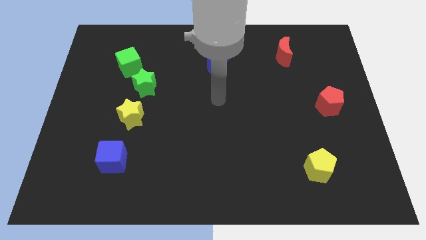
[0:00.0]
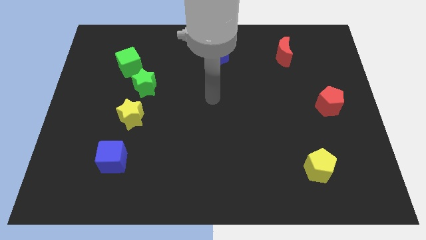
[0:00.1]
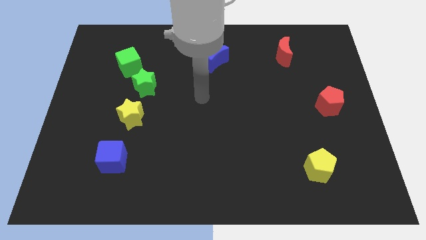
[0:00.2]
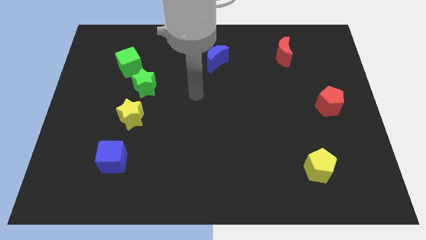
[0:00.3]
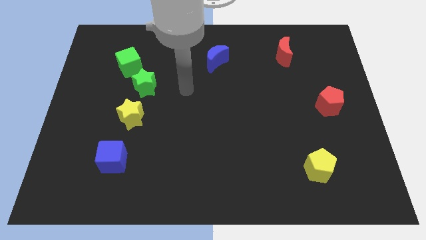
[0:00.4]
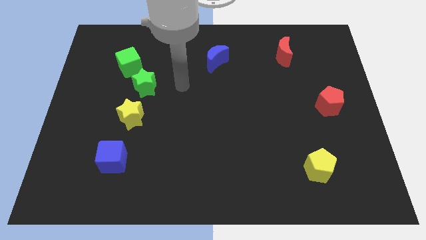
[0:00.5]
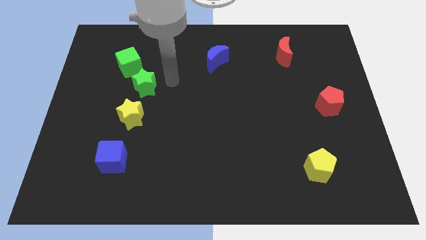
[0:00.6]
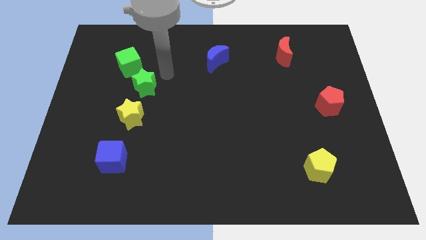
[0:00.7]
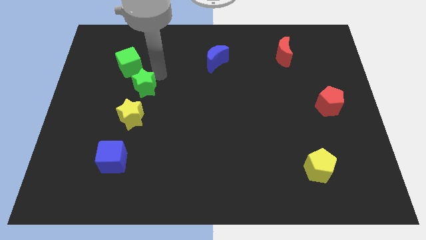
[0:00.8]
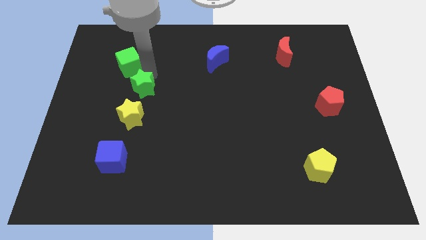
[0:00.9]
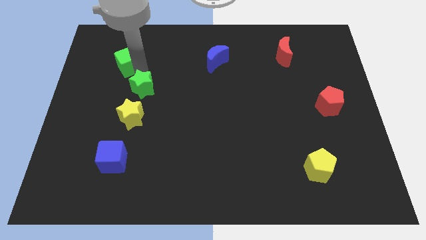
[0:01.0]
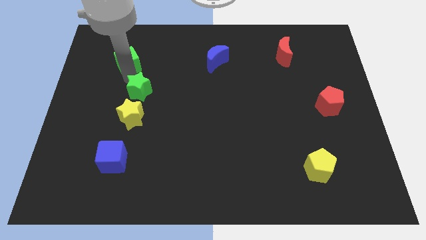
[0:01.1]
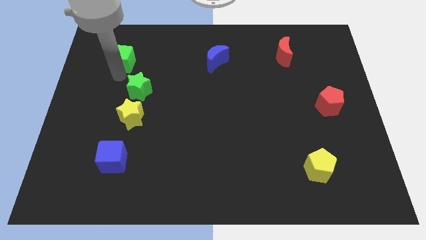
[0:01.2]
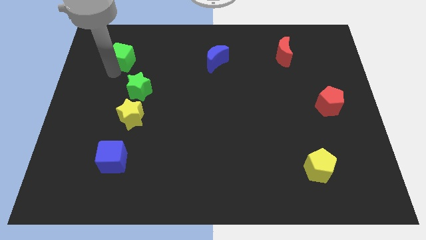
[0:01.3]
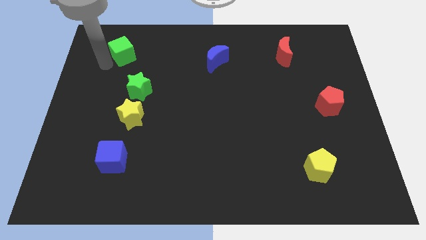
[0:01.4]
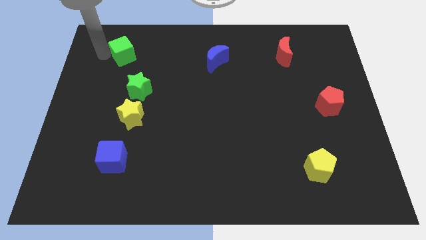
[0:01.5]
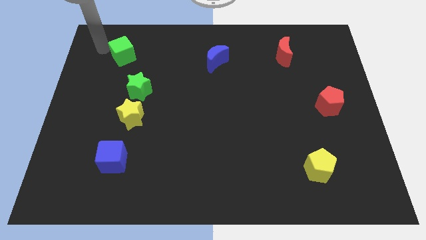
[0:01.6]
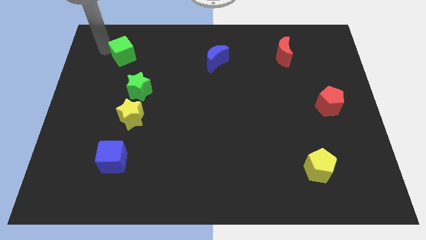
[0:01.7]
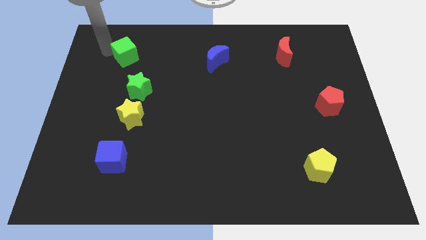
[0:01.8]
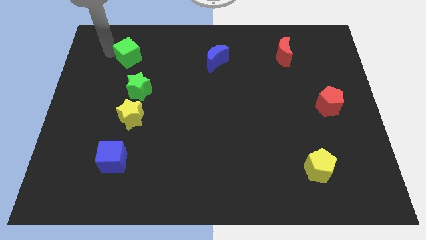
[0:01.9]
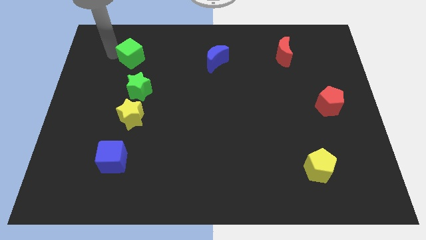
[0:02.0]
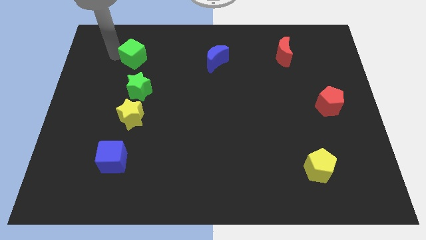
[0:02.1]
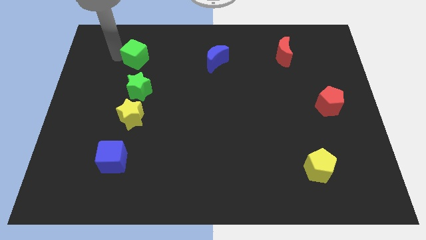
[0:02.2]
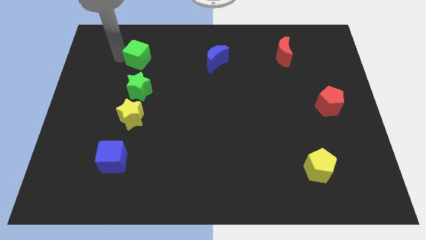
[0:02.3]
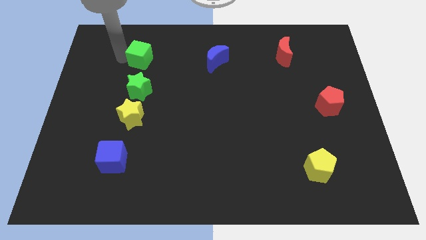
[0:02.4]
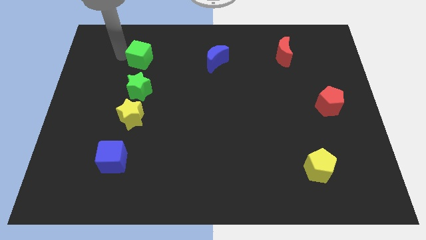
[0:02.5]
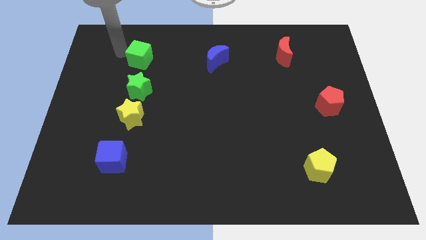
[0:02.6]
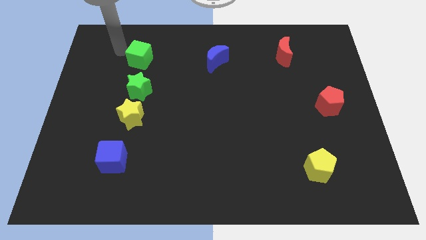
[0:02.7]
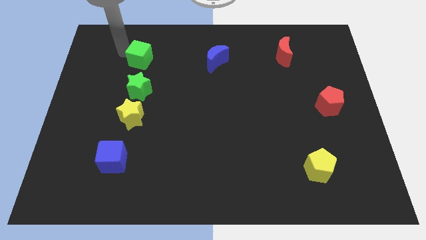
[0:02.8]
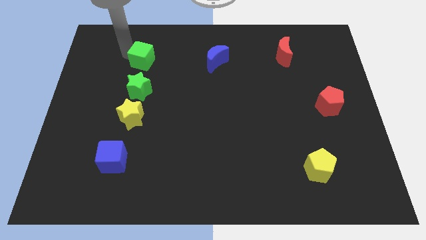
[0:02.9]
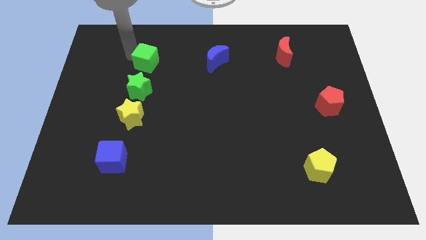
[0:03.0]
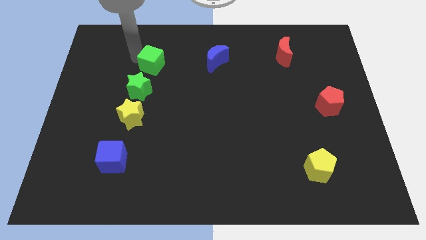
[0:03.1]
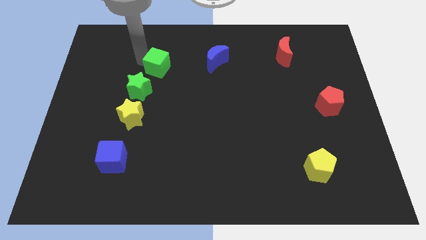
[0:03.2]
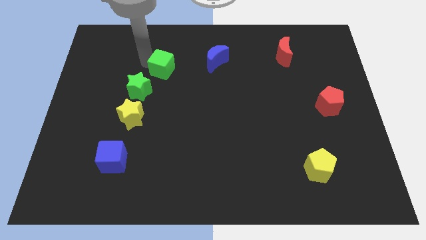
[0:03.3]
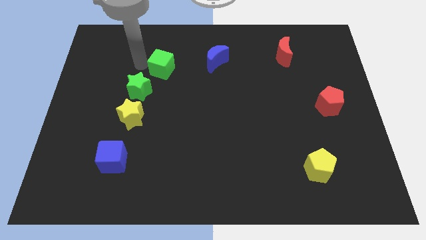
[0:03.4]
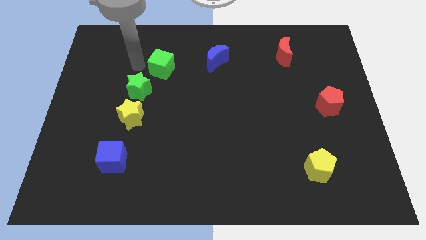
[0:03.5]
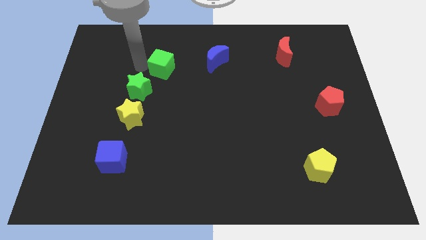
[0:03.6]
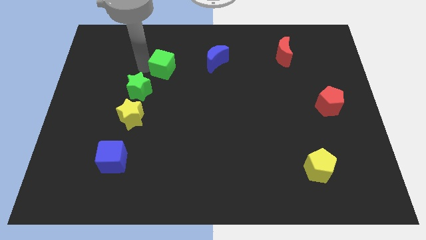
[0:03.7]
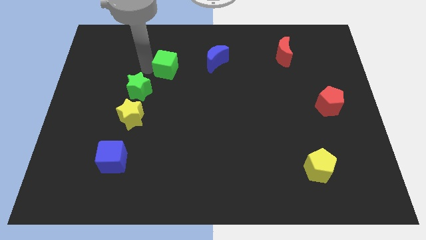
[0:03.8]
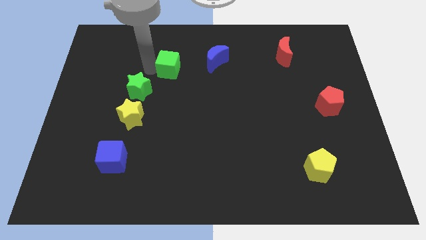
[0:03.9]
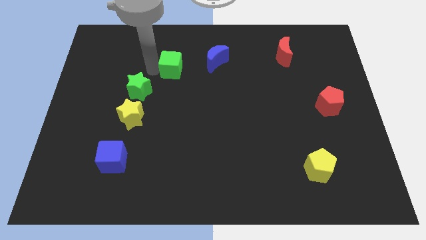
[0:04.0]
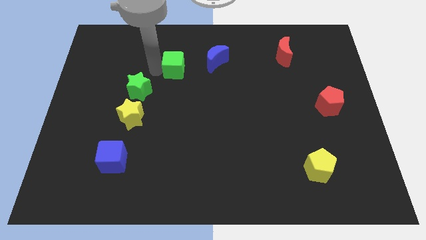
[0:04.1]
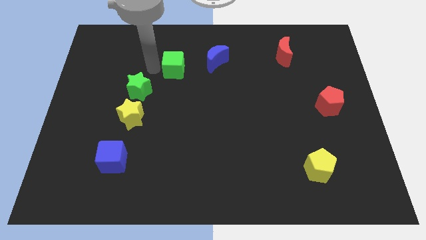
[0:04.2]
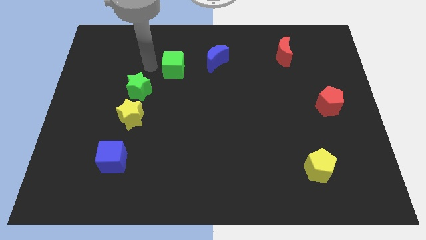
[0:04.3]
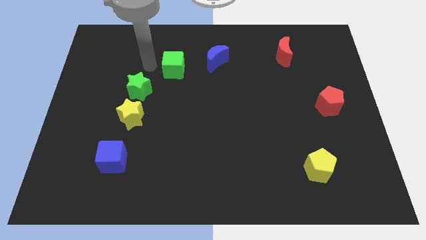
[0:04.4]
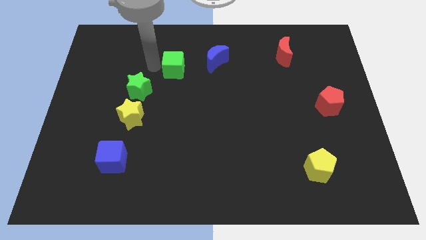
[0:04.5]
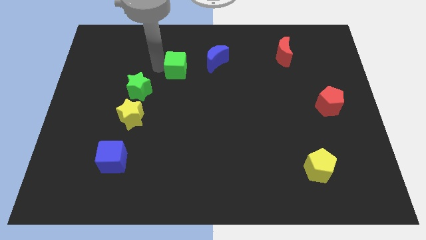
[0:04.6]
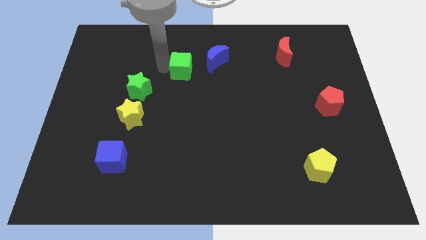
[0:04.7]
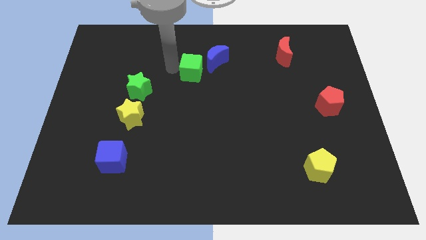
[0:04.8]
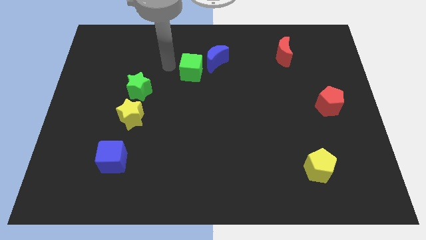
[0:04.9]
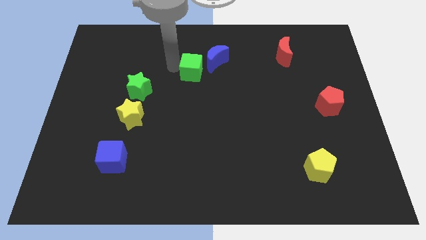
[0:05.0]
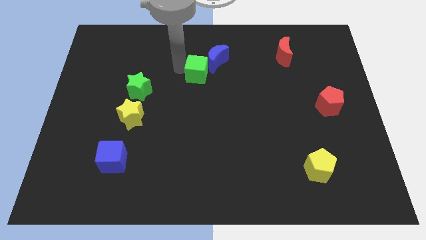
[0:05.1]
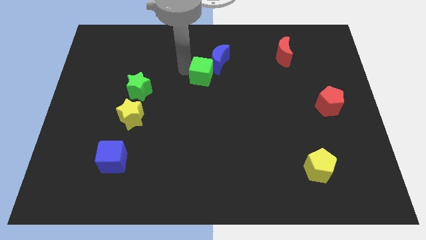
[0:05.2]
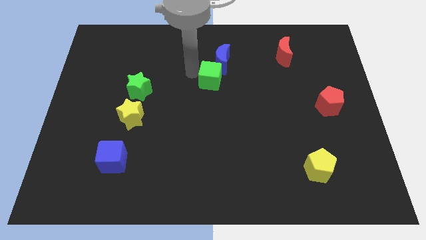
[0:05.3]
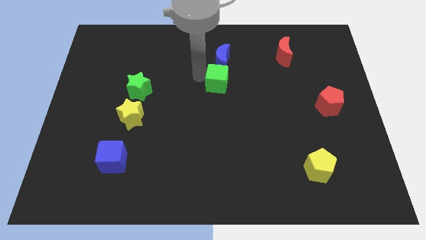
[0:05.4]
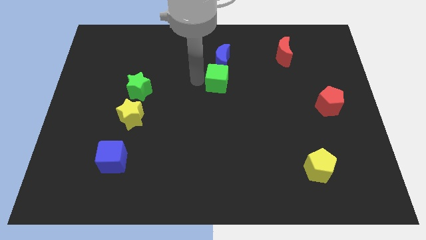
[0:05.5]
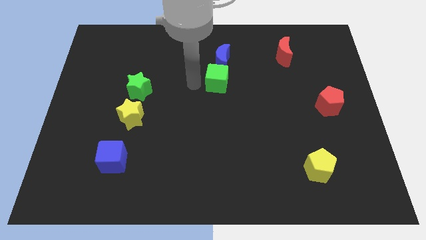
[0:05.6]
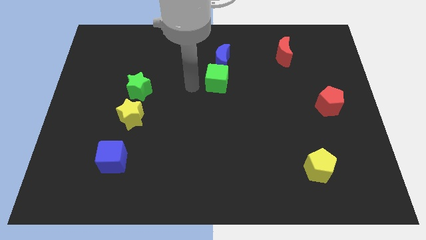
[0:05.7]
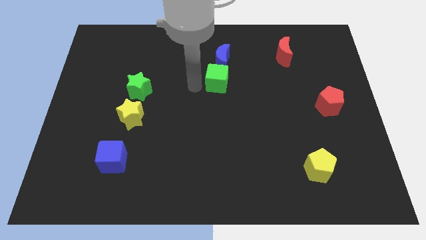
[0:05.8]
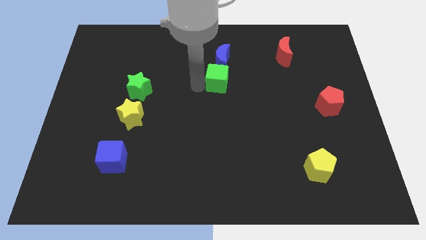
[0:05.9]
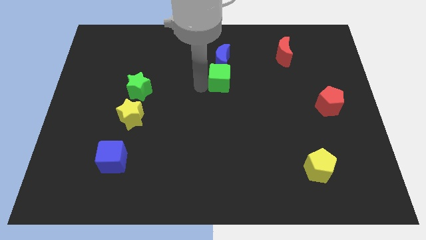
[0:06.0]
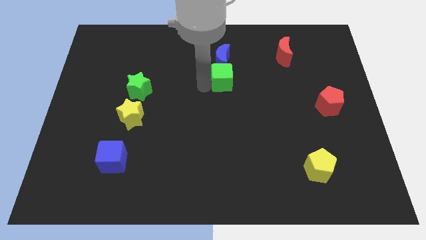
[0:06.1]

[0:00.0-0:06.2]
slide the green cube to the bottom right of the blue moon
